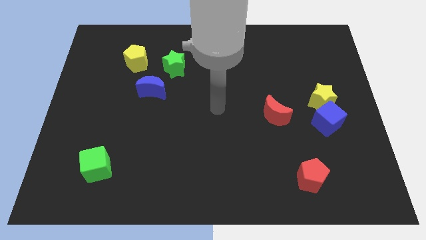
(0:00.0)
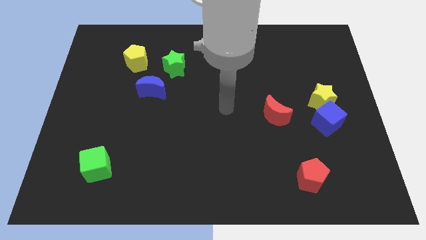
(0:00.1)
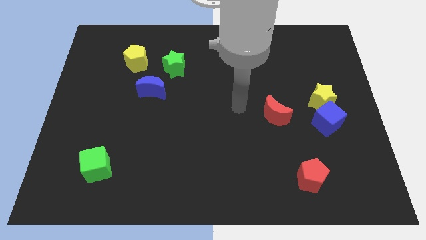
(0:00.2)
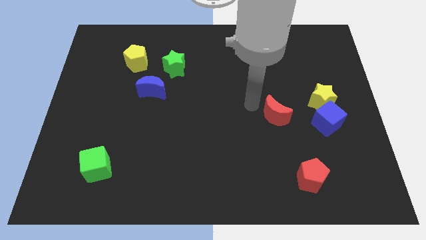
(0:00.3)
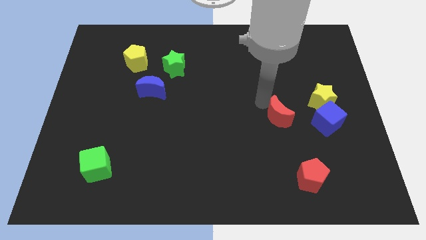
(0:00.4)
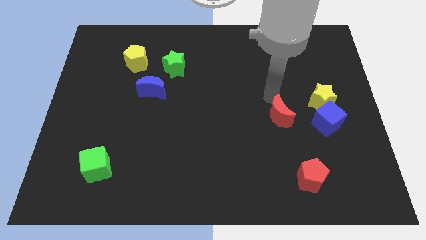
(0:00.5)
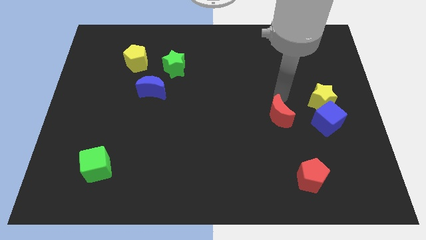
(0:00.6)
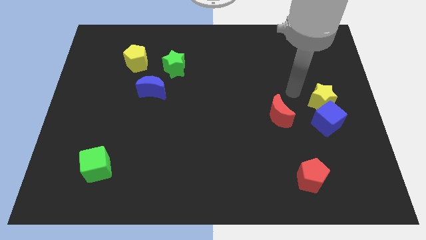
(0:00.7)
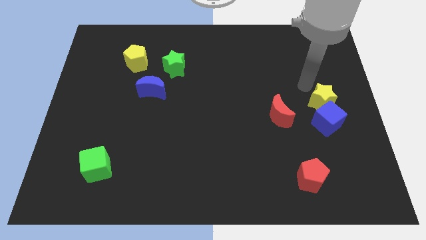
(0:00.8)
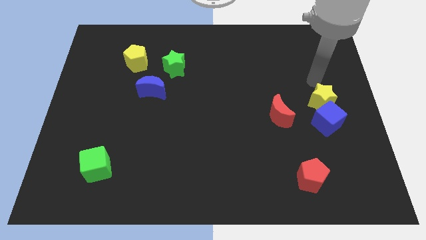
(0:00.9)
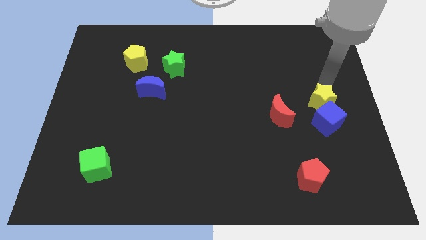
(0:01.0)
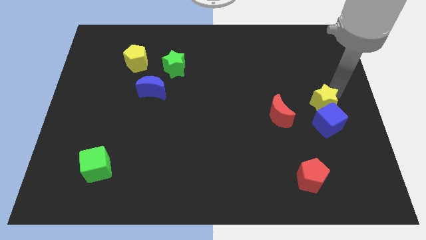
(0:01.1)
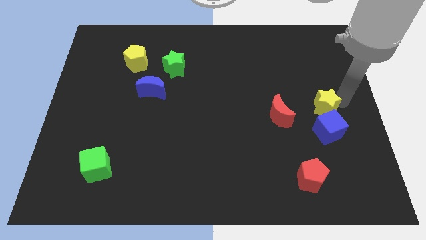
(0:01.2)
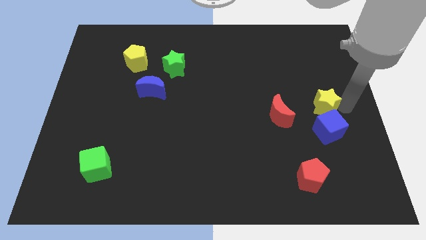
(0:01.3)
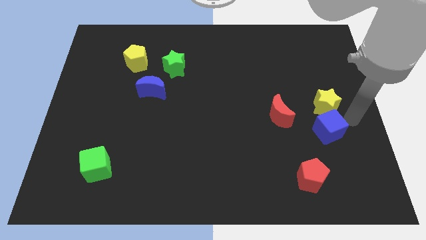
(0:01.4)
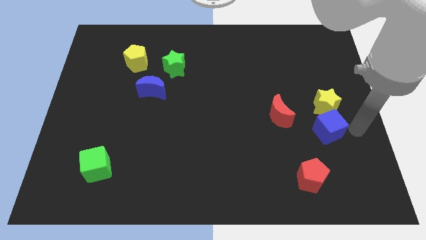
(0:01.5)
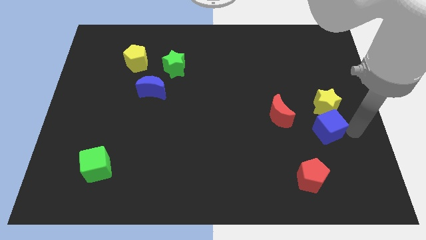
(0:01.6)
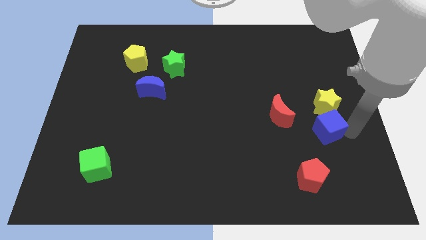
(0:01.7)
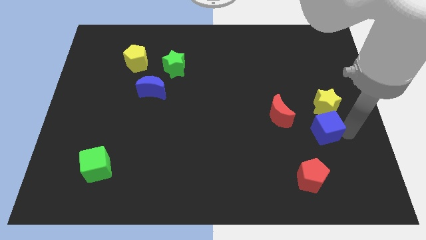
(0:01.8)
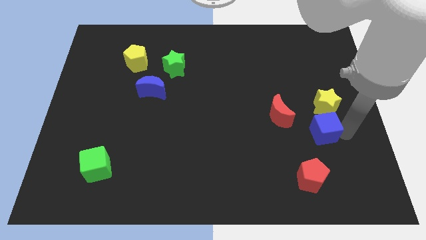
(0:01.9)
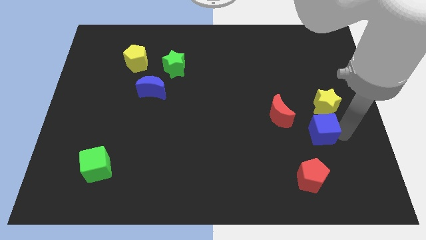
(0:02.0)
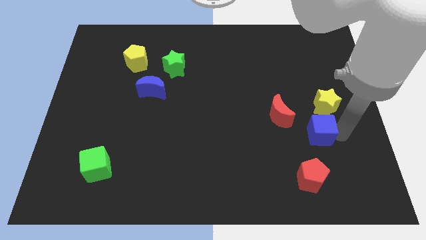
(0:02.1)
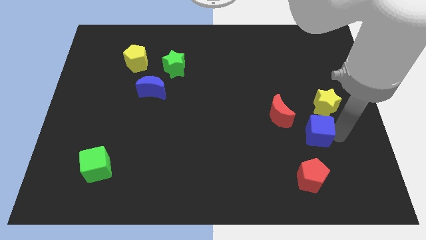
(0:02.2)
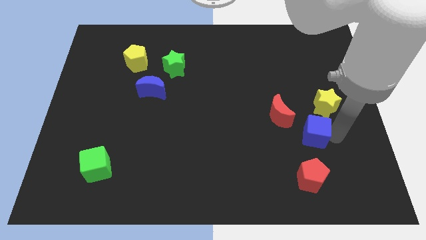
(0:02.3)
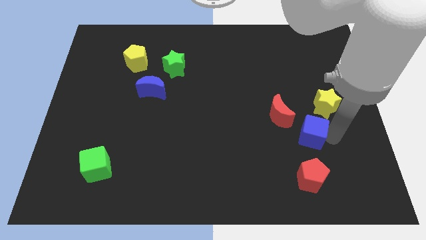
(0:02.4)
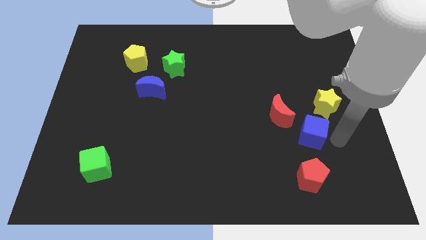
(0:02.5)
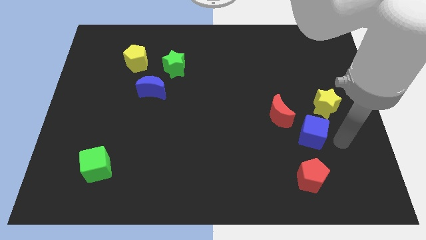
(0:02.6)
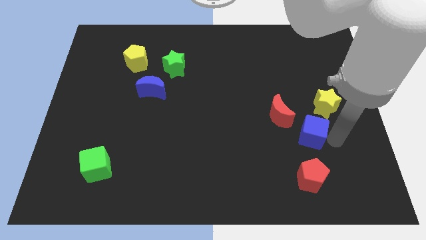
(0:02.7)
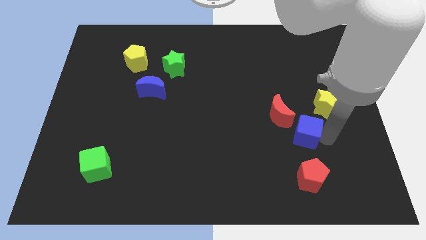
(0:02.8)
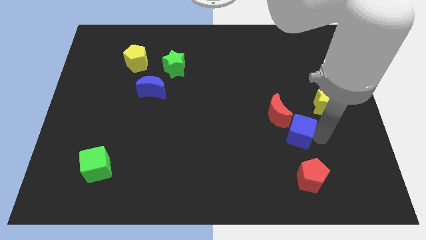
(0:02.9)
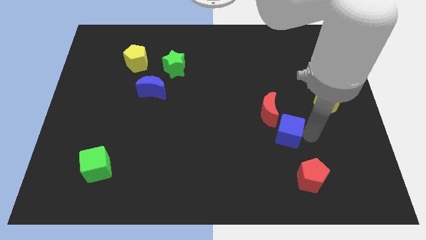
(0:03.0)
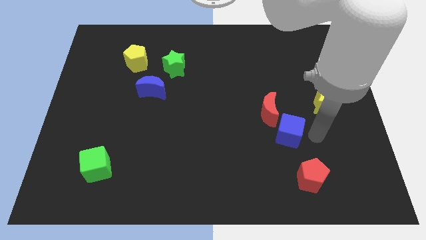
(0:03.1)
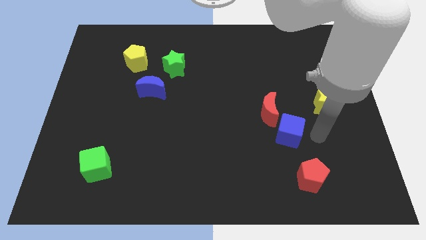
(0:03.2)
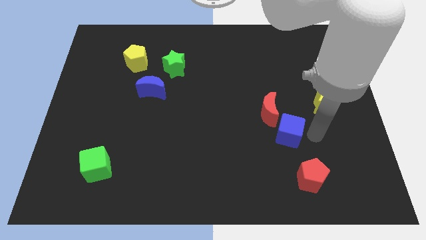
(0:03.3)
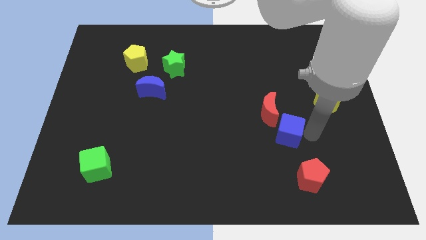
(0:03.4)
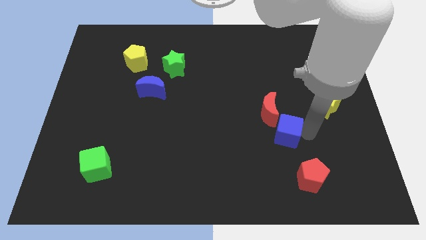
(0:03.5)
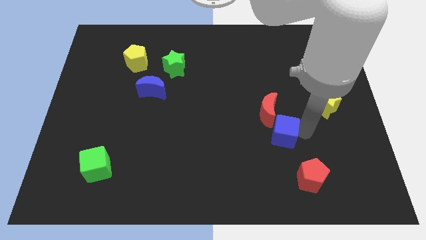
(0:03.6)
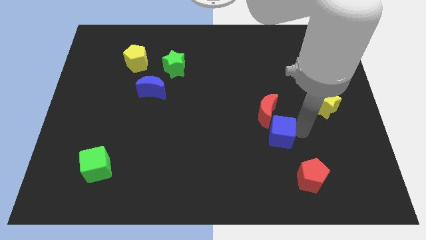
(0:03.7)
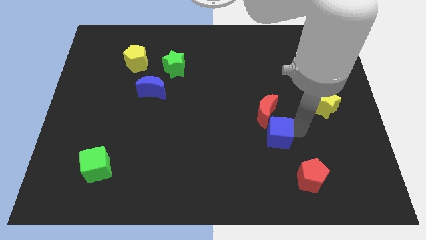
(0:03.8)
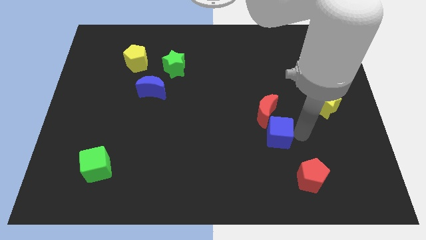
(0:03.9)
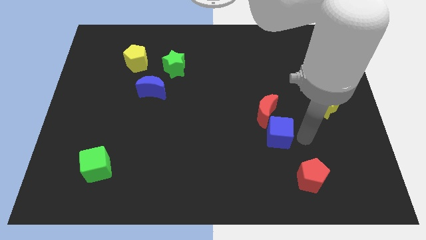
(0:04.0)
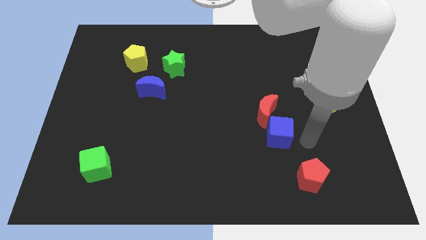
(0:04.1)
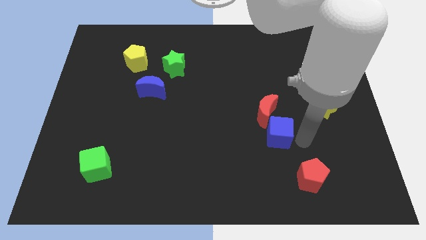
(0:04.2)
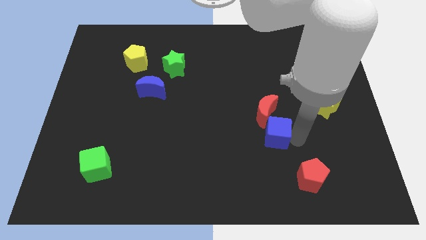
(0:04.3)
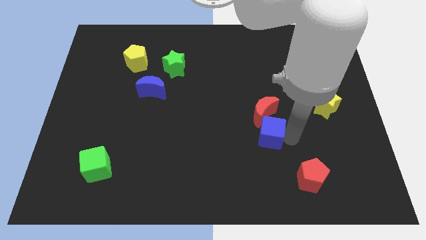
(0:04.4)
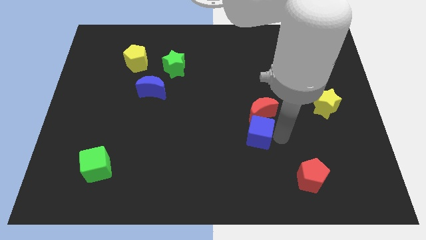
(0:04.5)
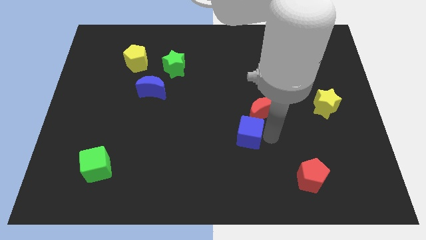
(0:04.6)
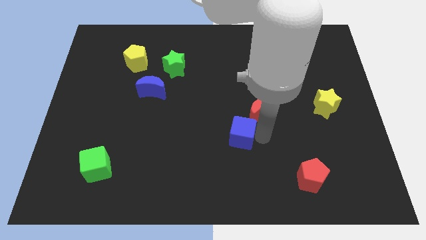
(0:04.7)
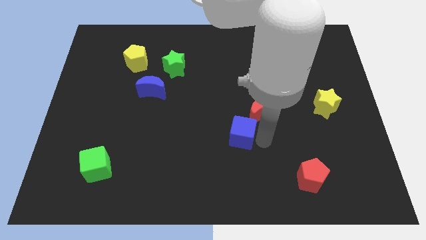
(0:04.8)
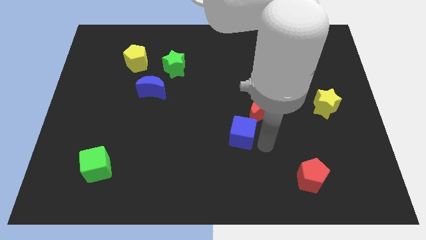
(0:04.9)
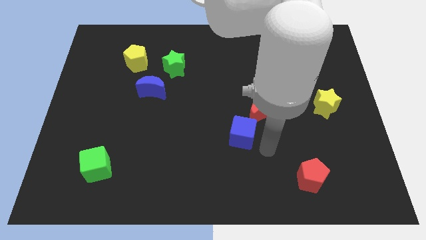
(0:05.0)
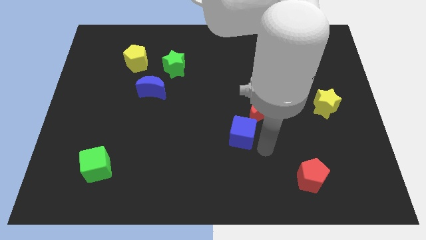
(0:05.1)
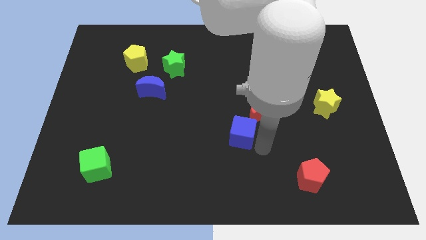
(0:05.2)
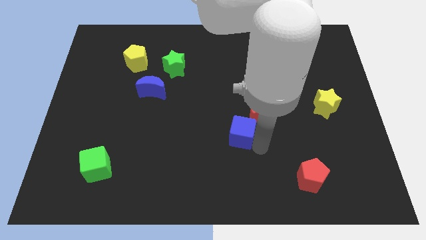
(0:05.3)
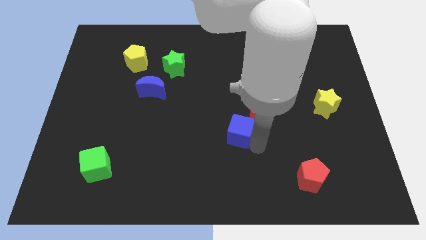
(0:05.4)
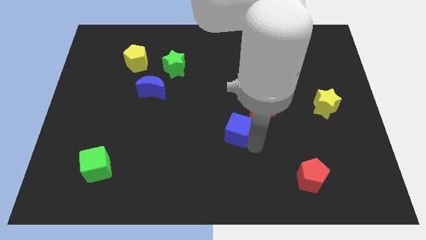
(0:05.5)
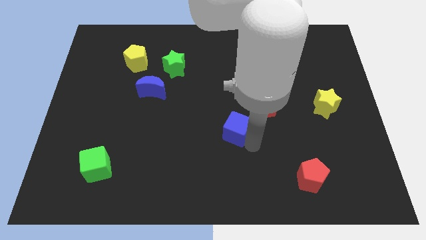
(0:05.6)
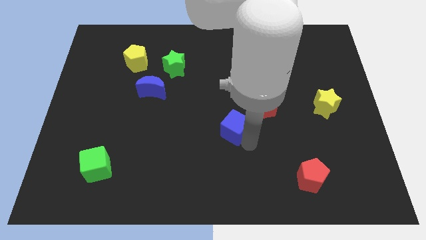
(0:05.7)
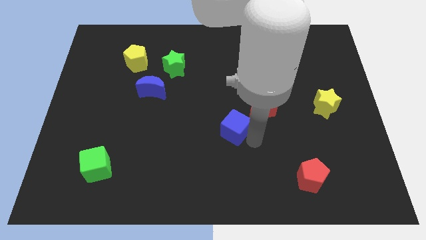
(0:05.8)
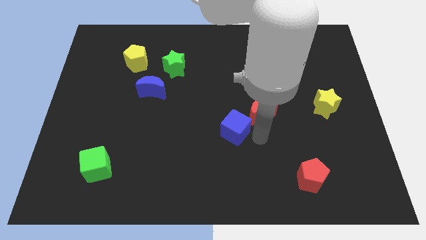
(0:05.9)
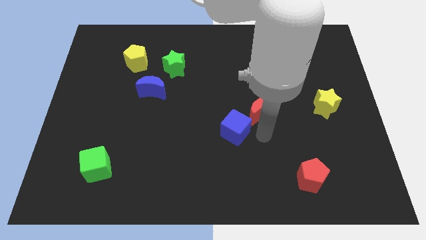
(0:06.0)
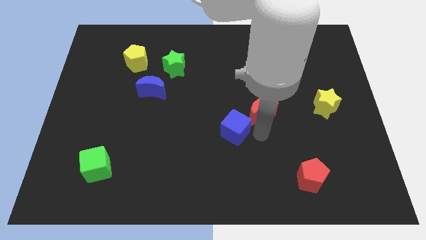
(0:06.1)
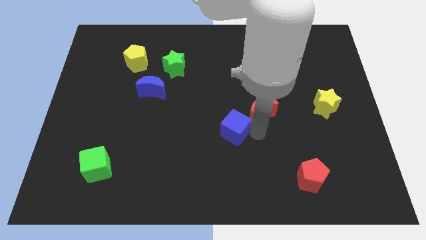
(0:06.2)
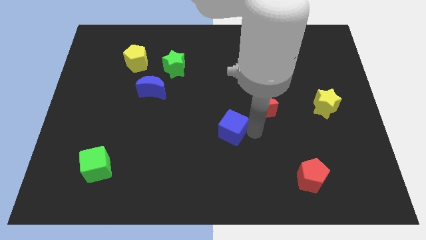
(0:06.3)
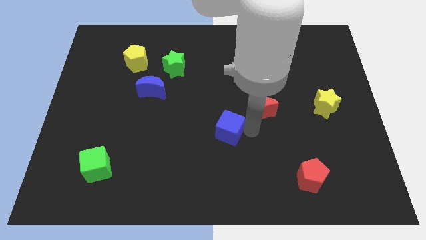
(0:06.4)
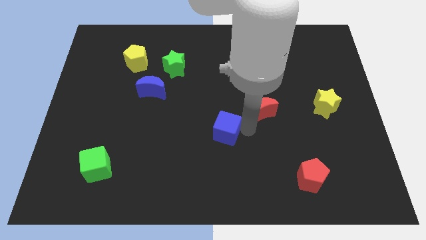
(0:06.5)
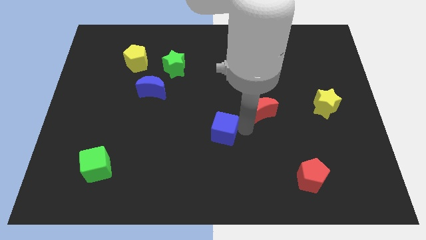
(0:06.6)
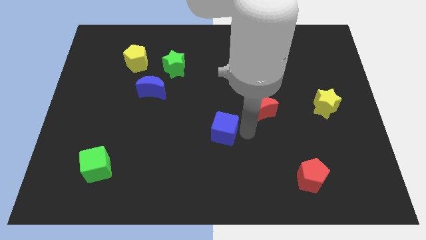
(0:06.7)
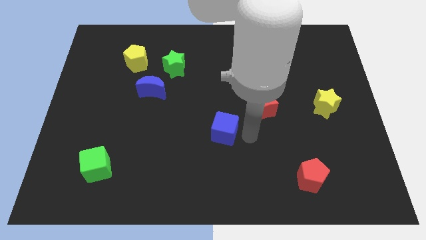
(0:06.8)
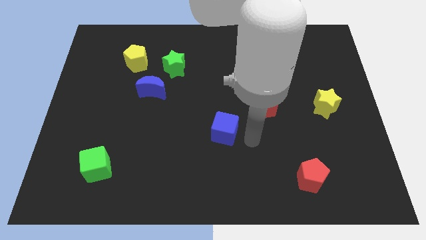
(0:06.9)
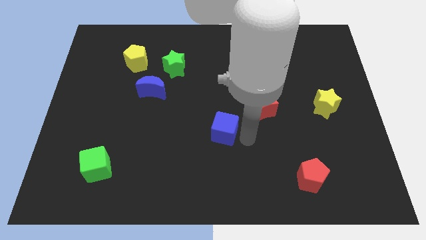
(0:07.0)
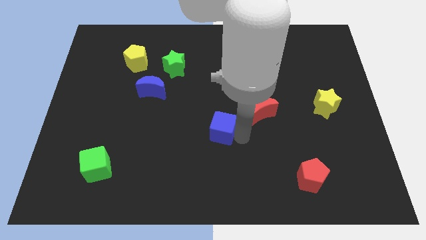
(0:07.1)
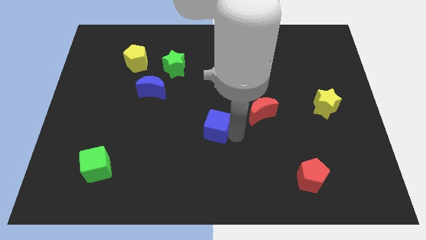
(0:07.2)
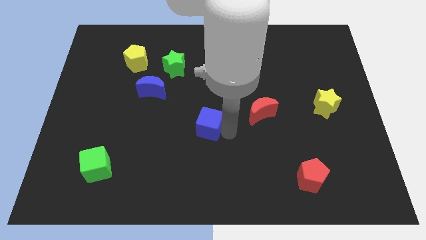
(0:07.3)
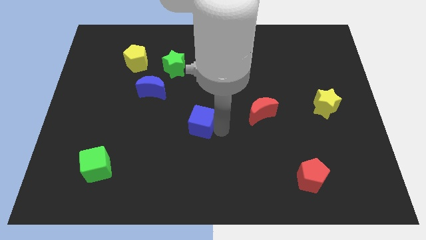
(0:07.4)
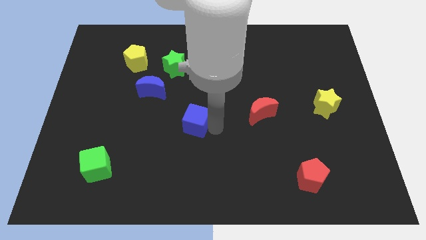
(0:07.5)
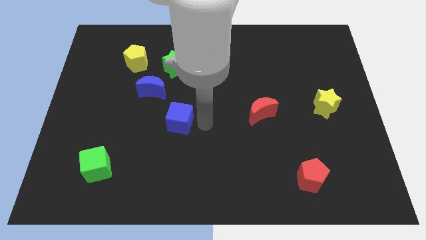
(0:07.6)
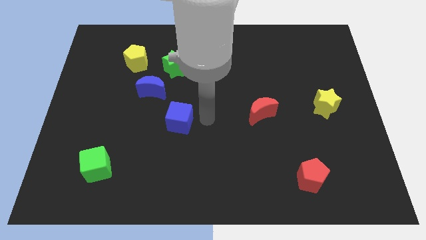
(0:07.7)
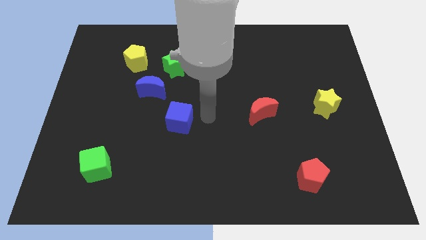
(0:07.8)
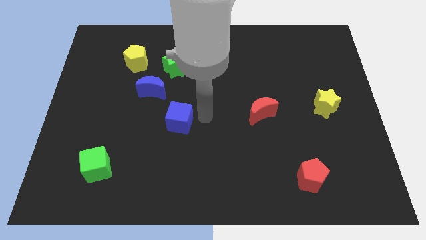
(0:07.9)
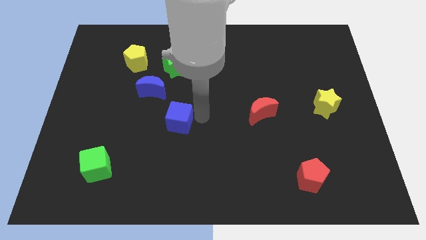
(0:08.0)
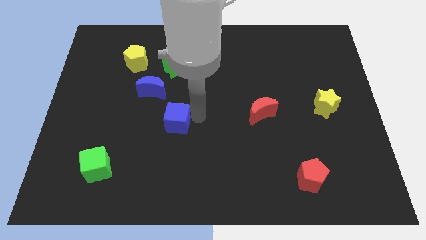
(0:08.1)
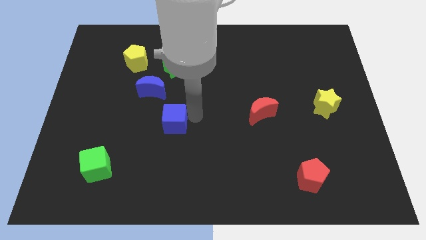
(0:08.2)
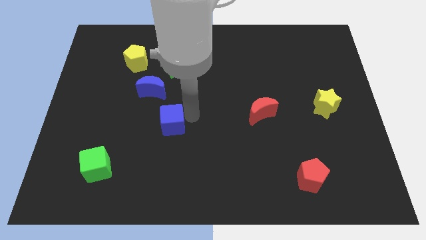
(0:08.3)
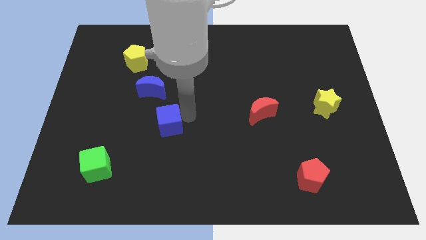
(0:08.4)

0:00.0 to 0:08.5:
push the blue cube to the bottom side of the blue moon
